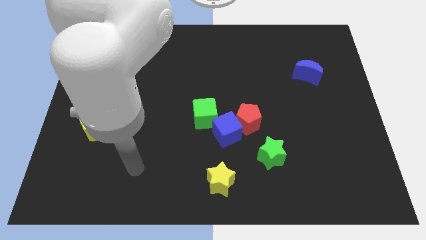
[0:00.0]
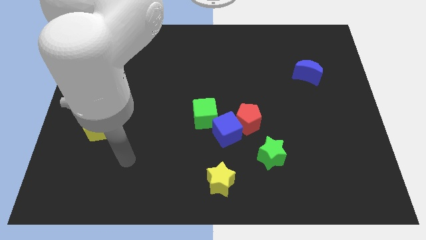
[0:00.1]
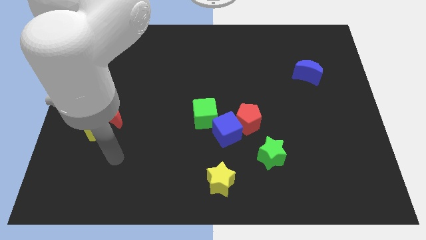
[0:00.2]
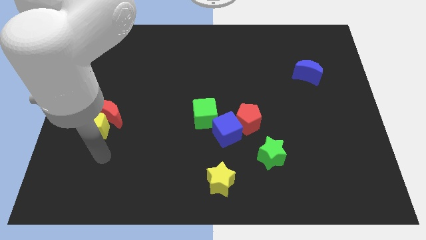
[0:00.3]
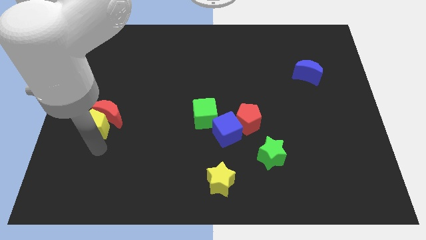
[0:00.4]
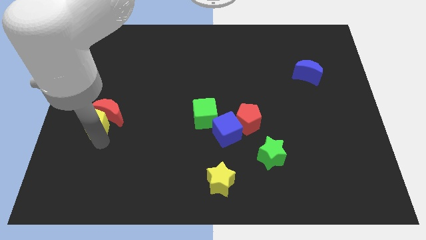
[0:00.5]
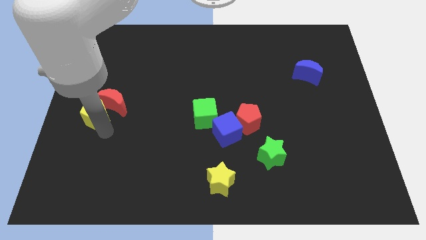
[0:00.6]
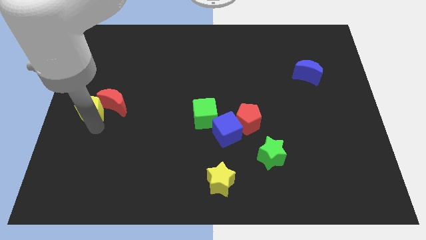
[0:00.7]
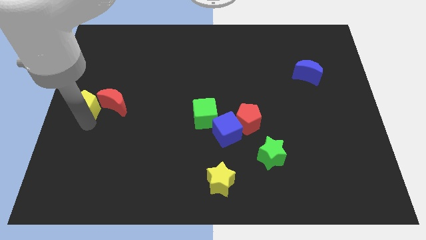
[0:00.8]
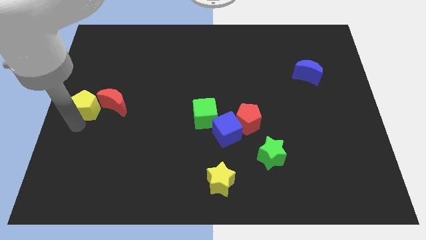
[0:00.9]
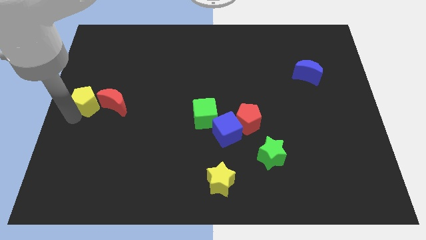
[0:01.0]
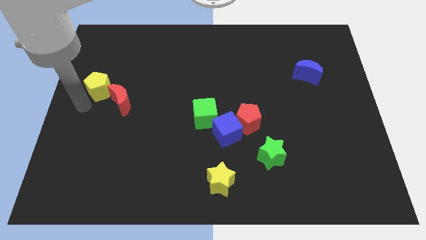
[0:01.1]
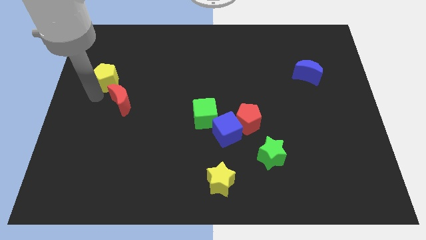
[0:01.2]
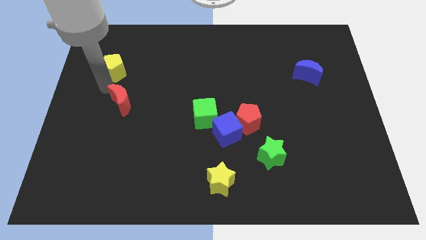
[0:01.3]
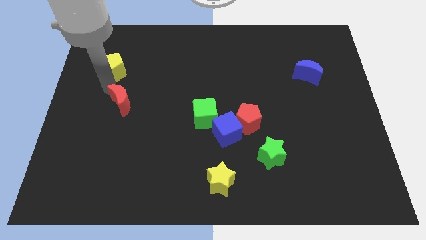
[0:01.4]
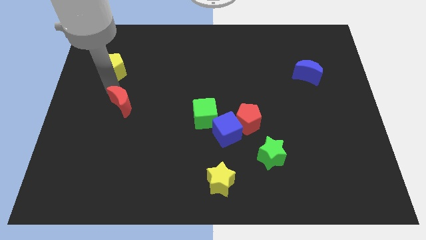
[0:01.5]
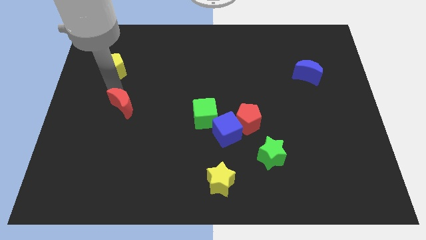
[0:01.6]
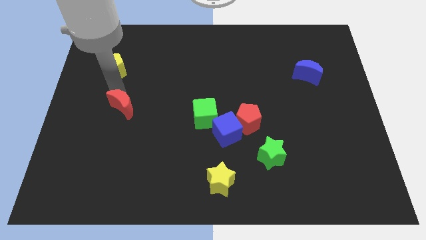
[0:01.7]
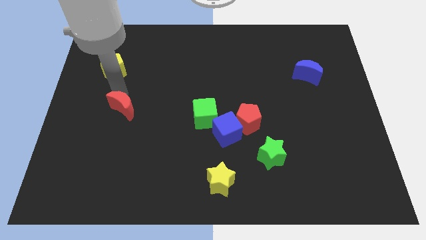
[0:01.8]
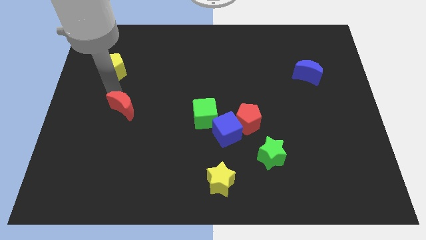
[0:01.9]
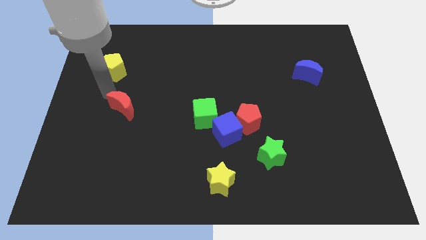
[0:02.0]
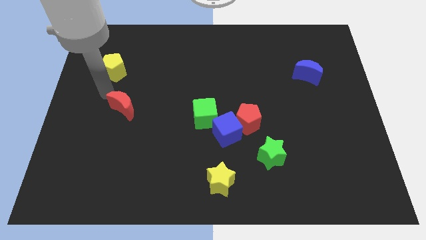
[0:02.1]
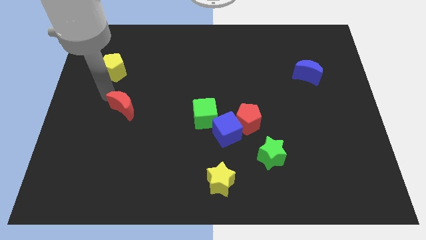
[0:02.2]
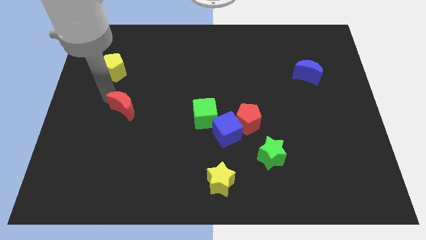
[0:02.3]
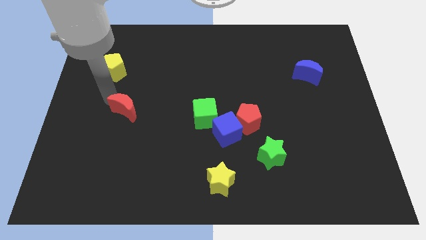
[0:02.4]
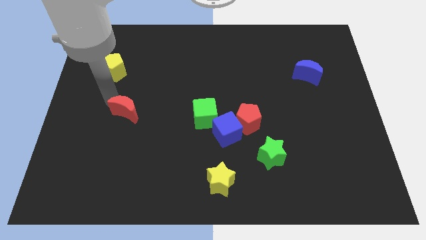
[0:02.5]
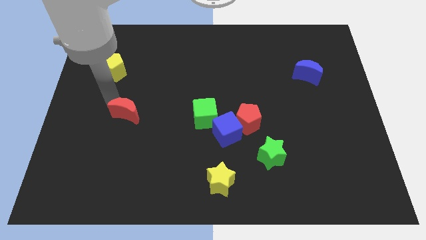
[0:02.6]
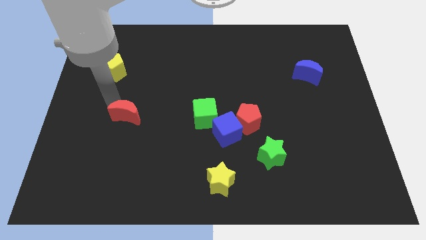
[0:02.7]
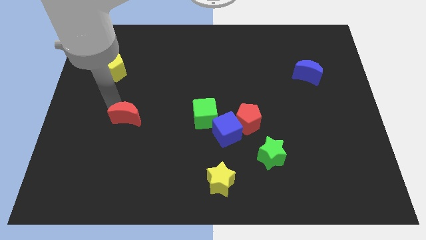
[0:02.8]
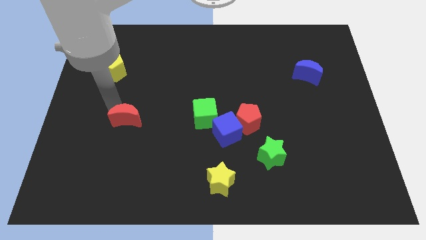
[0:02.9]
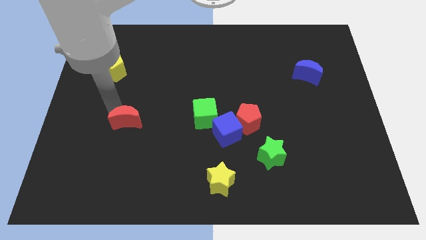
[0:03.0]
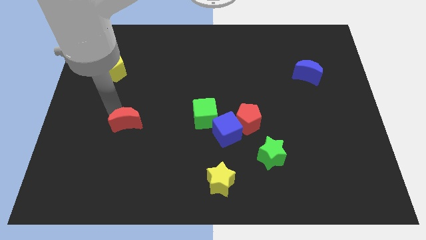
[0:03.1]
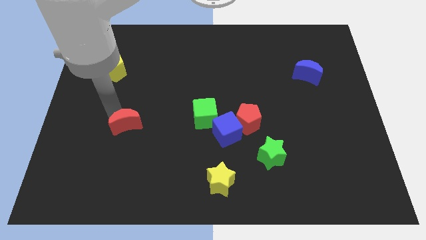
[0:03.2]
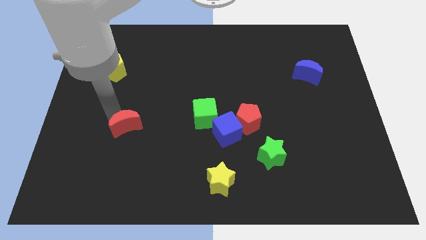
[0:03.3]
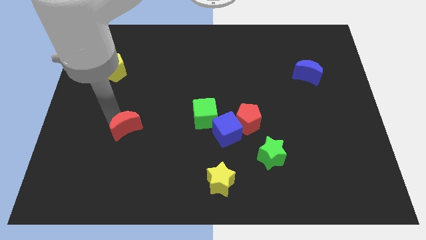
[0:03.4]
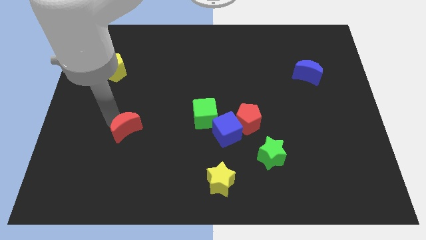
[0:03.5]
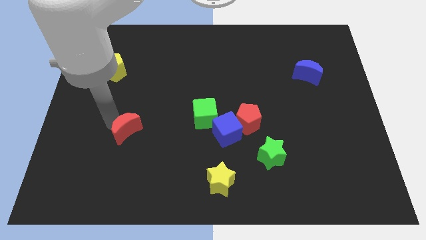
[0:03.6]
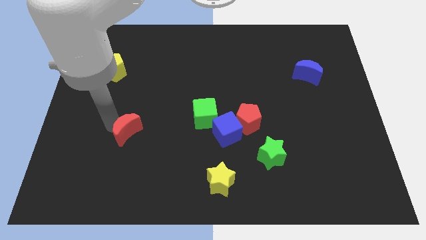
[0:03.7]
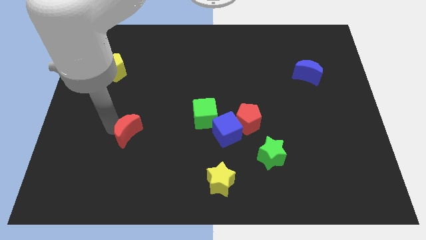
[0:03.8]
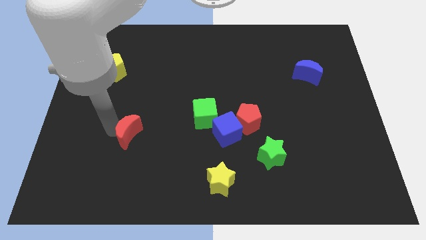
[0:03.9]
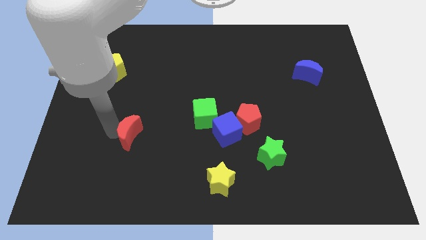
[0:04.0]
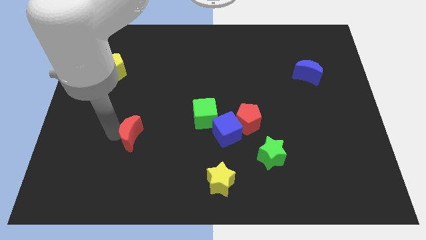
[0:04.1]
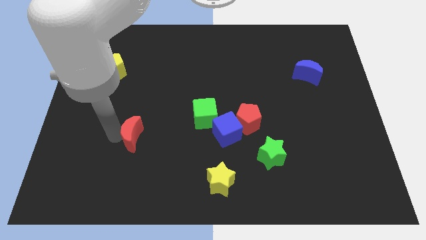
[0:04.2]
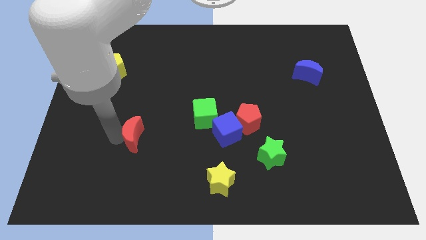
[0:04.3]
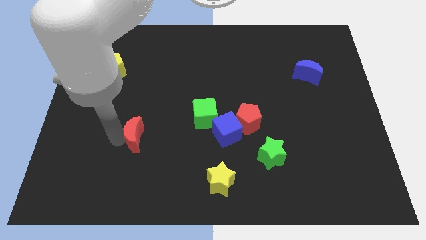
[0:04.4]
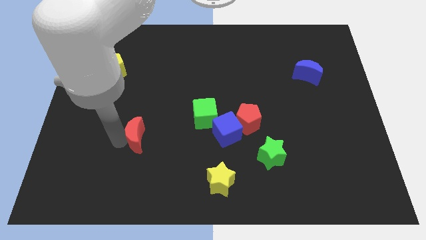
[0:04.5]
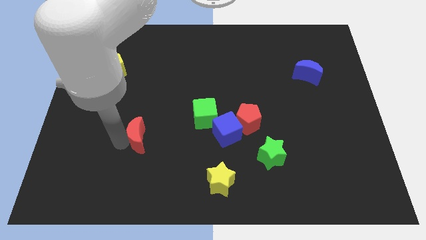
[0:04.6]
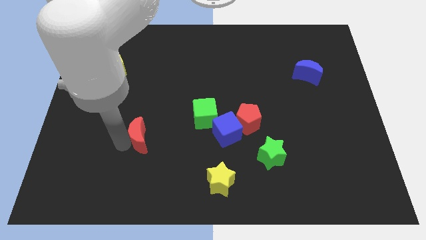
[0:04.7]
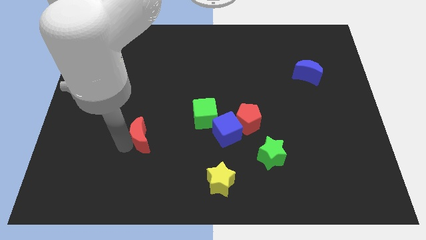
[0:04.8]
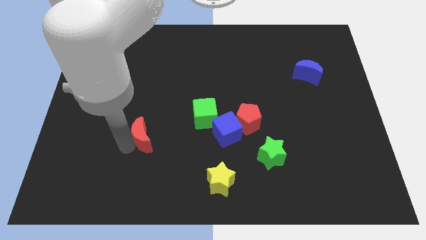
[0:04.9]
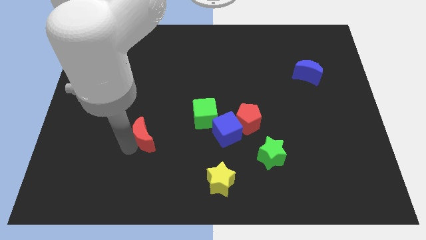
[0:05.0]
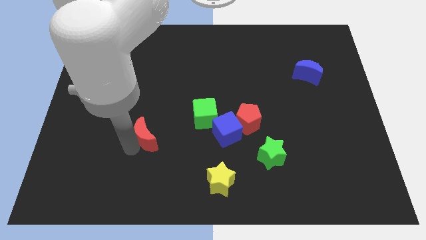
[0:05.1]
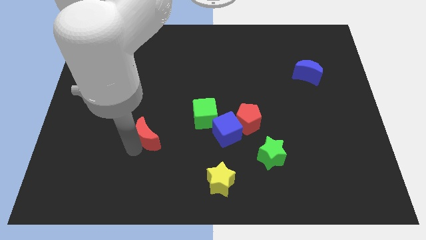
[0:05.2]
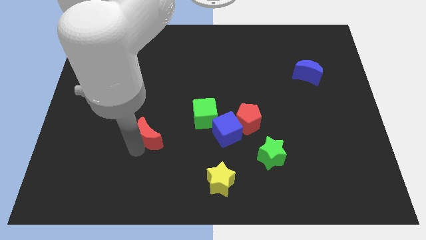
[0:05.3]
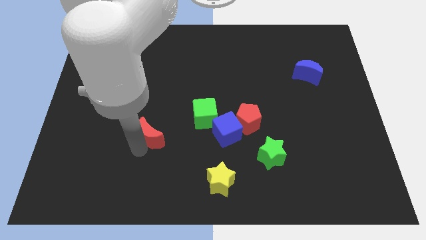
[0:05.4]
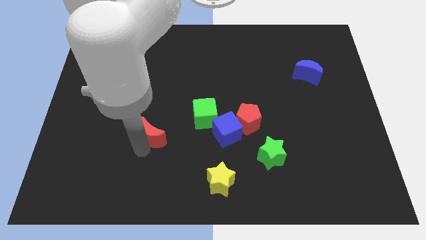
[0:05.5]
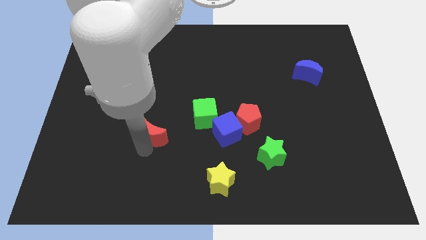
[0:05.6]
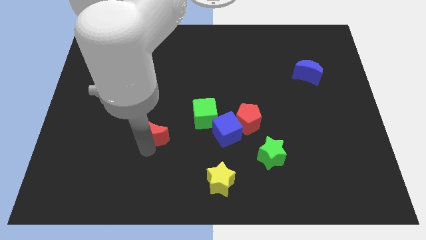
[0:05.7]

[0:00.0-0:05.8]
push the red moon to the left side of the blue cube
